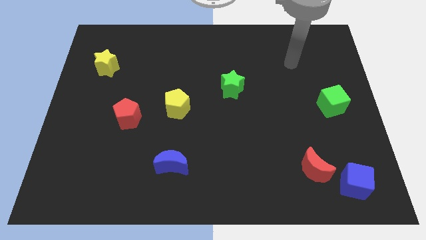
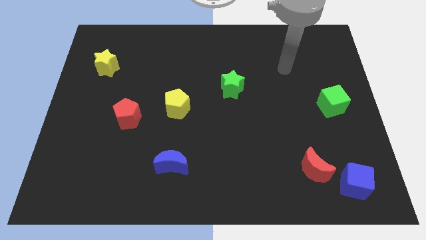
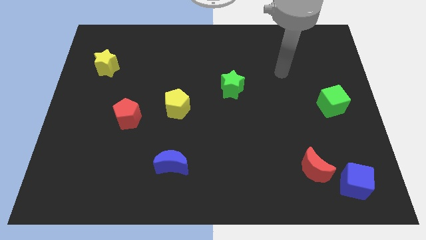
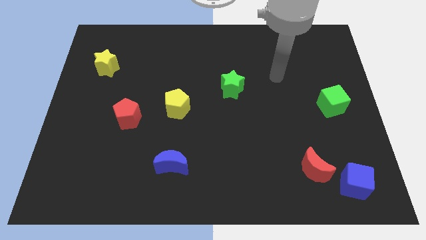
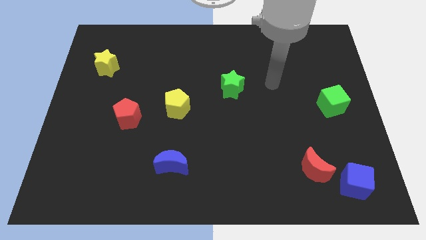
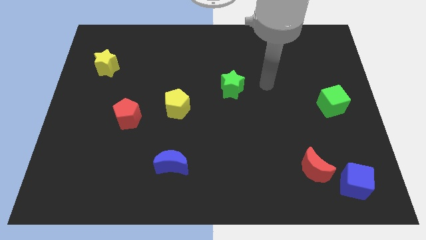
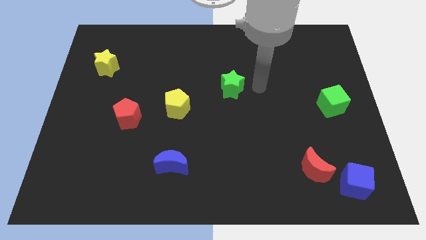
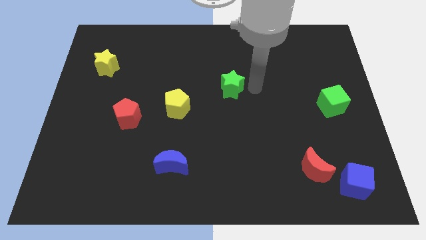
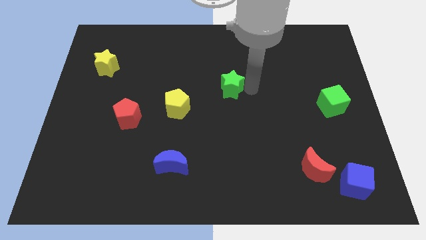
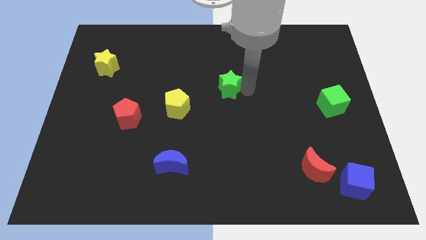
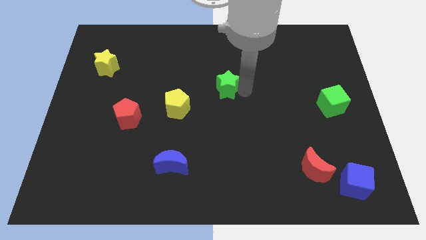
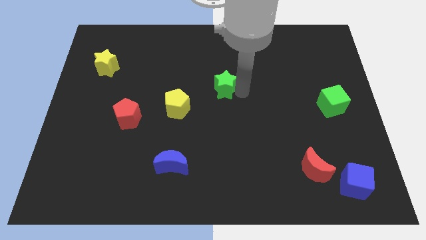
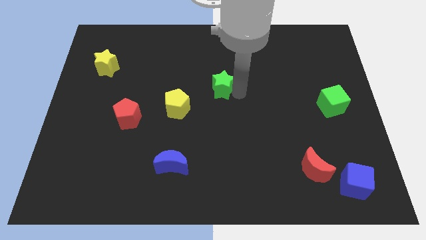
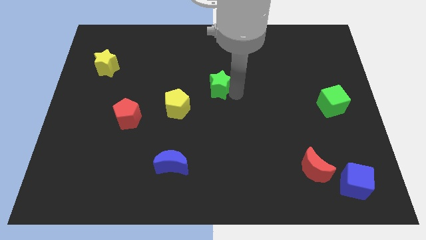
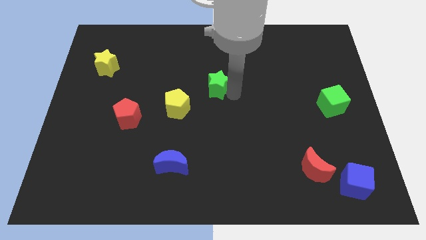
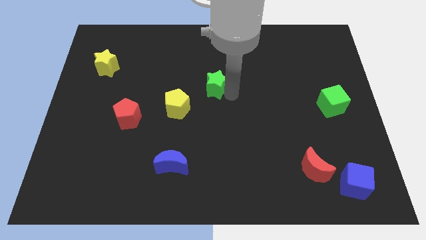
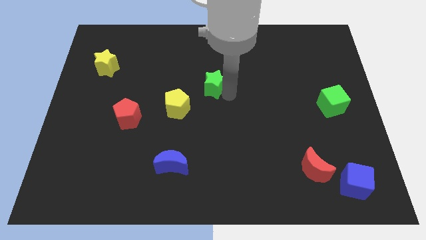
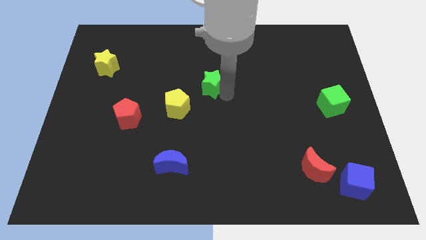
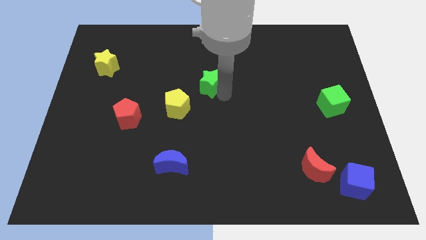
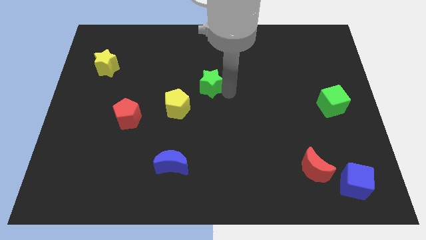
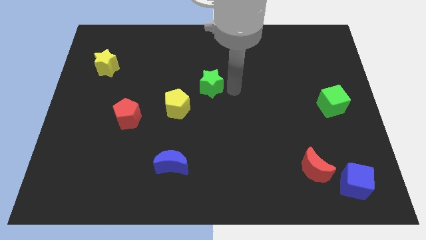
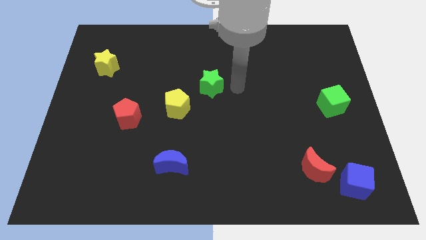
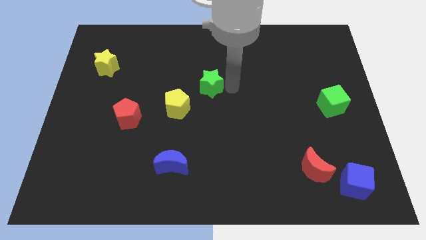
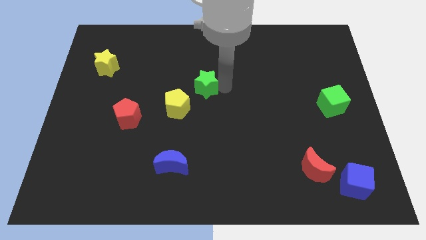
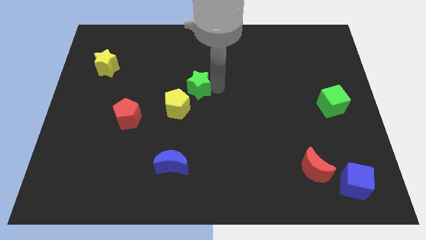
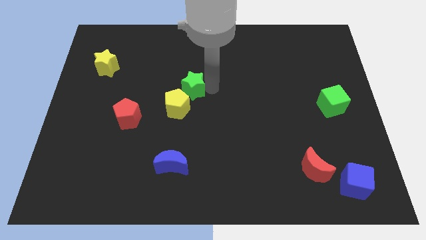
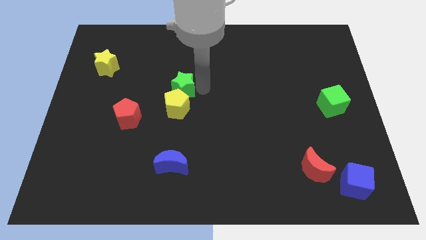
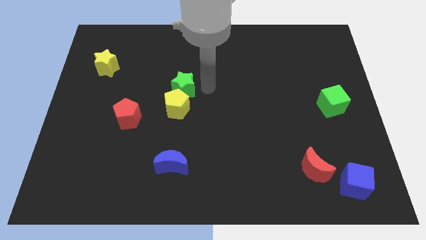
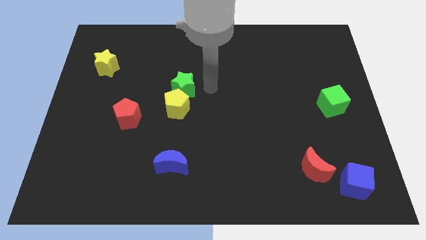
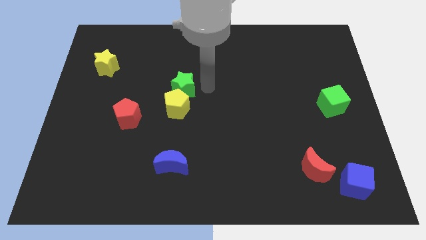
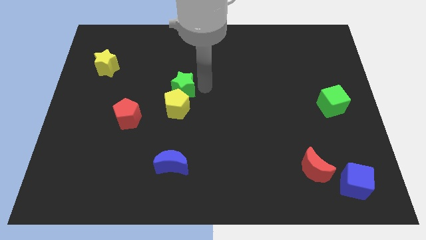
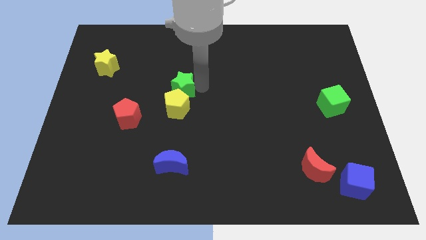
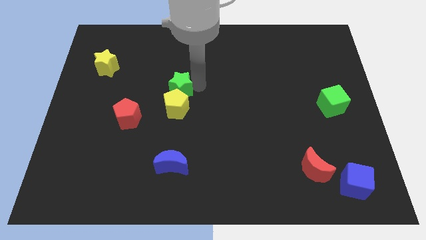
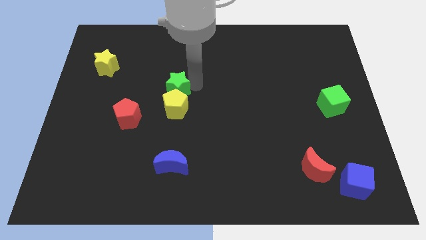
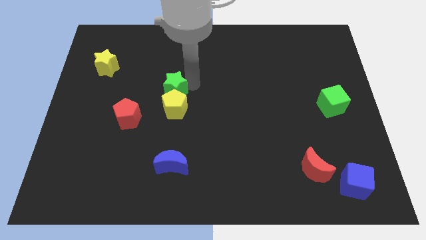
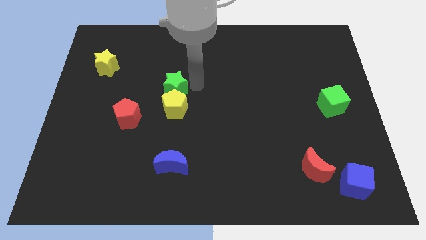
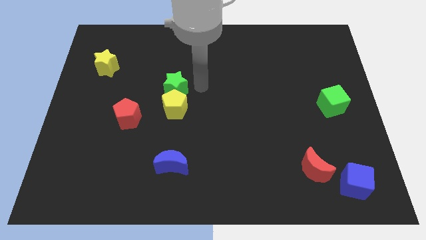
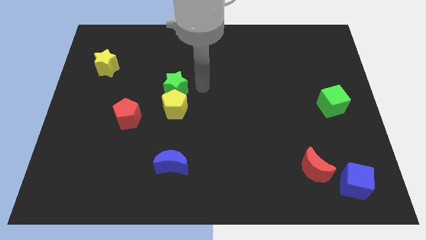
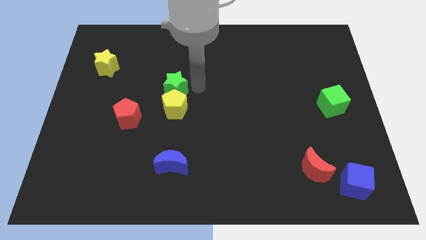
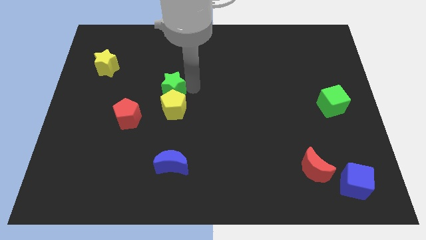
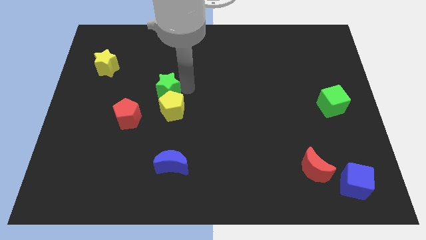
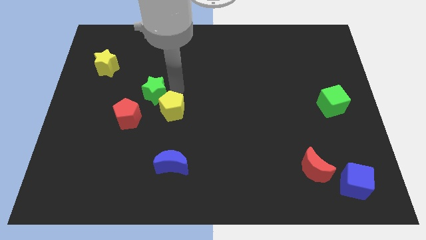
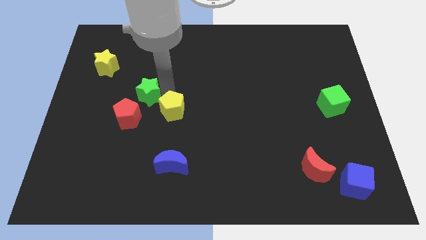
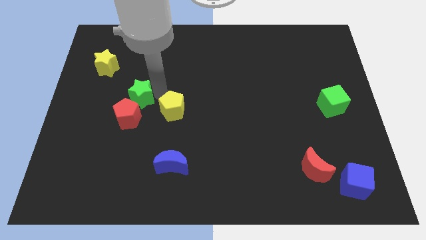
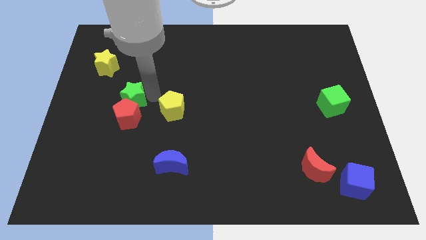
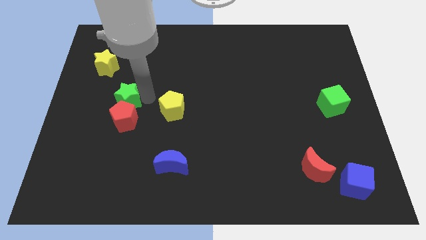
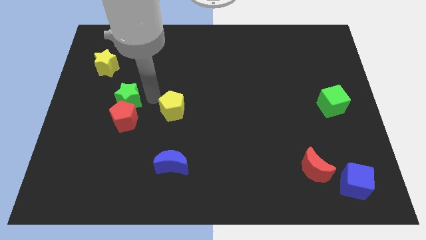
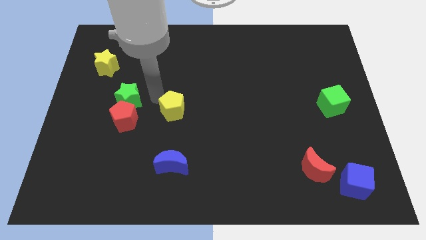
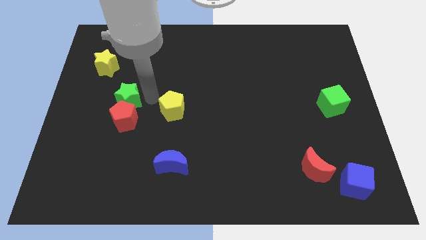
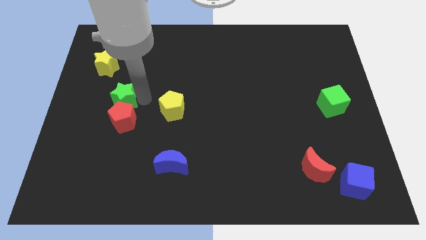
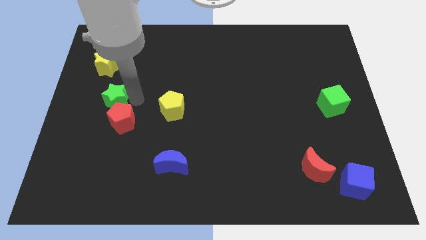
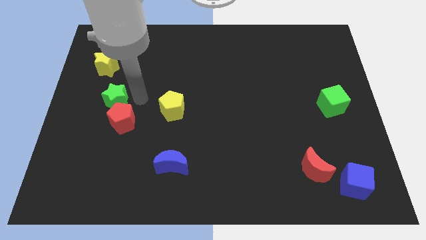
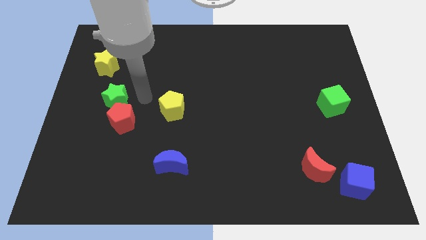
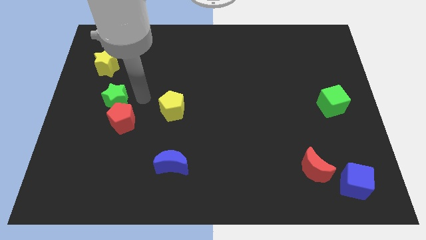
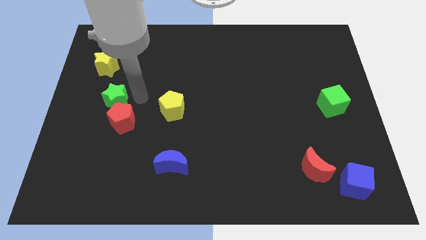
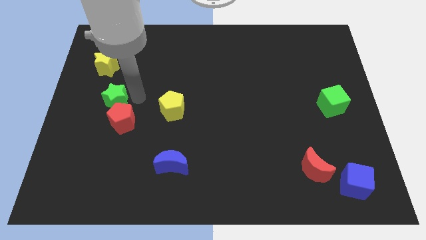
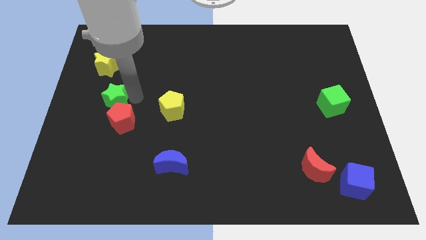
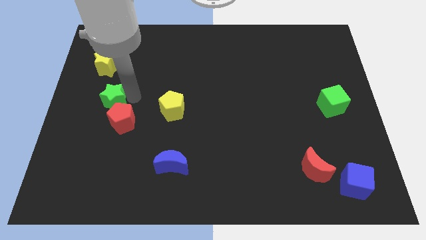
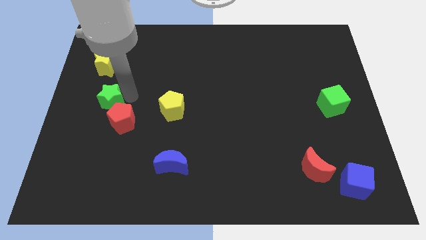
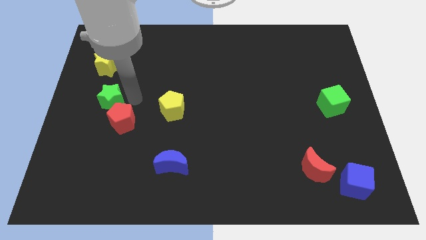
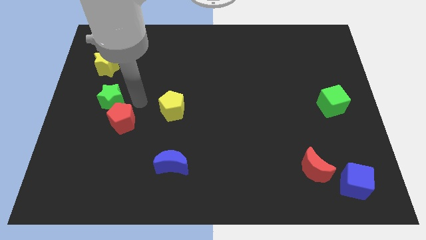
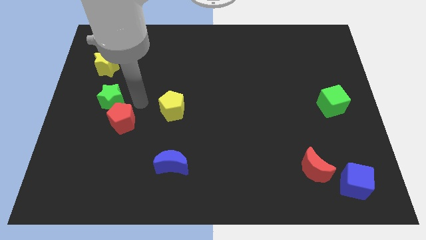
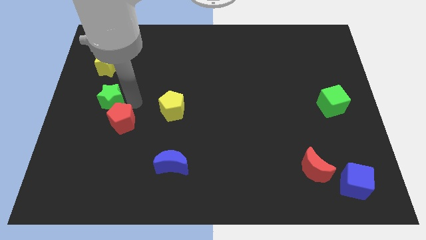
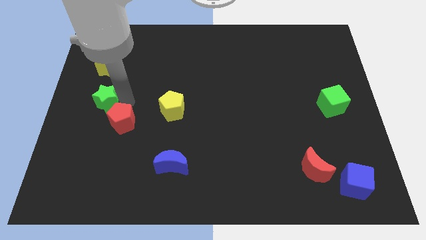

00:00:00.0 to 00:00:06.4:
slide the green star to the center left
